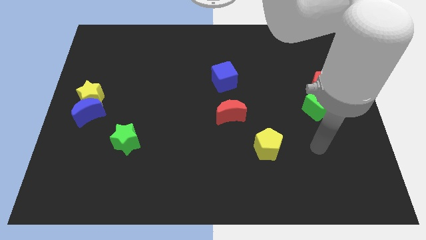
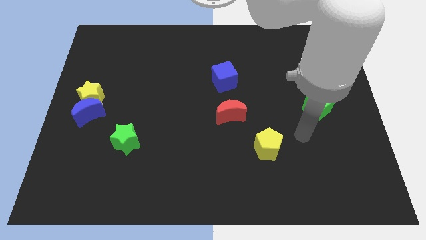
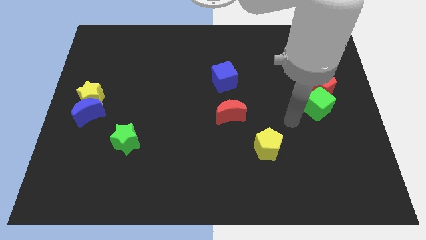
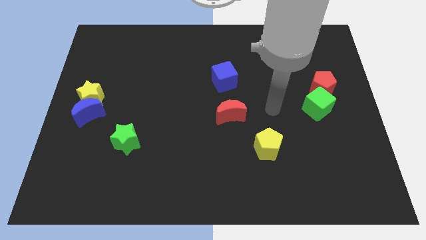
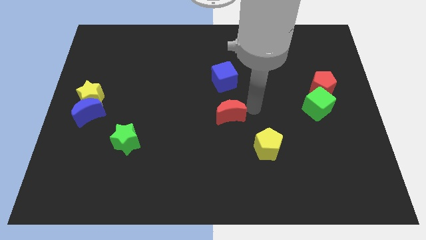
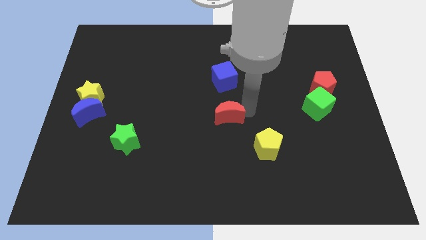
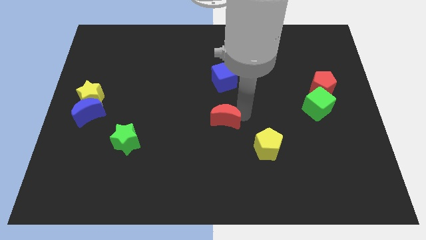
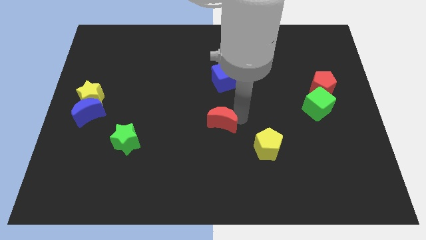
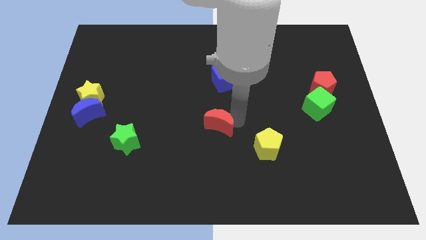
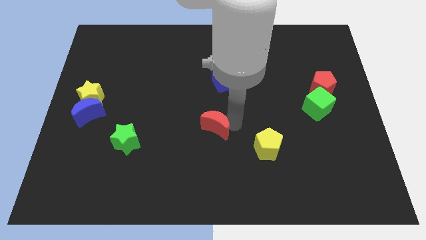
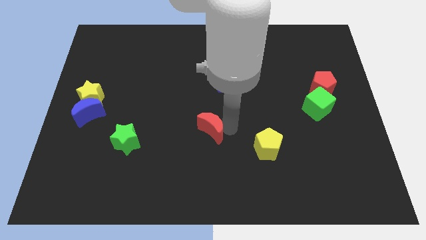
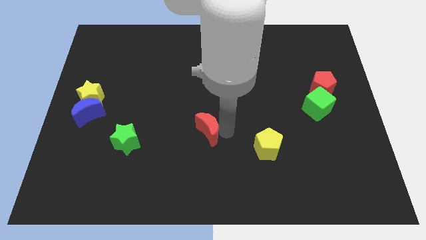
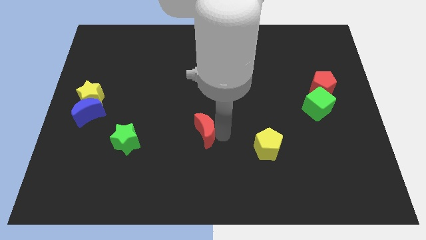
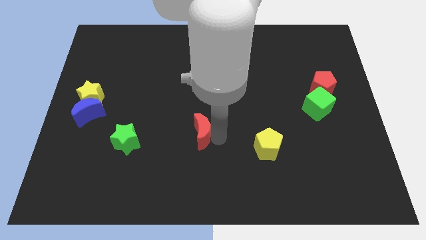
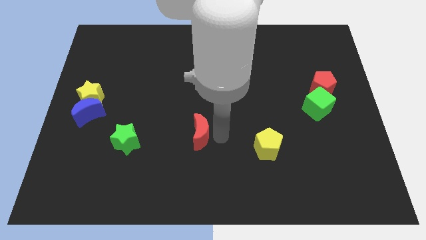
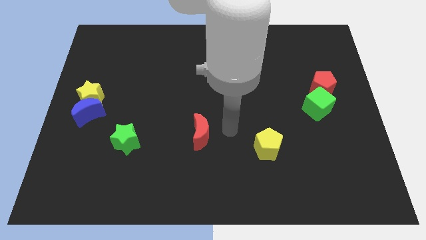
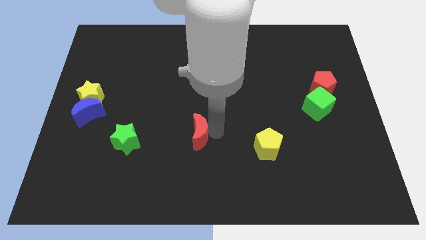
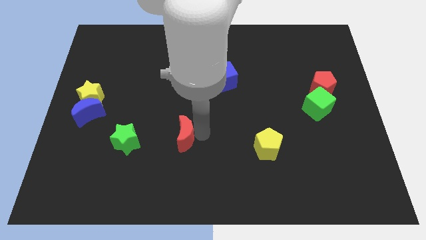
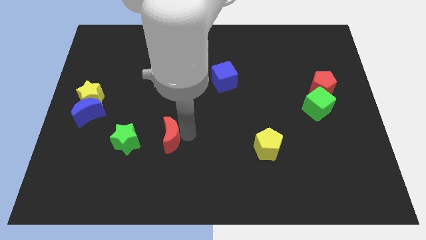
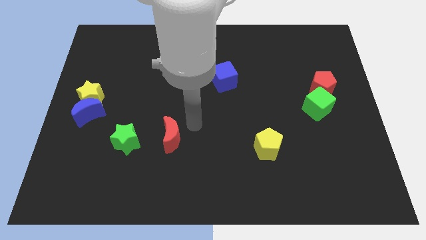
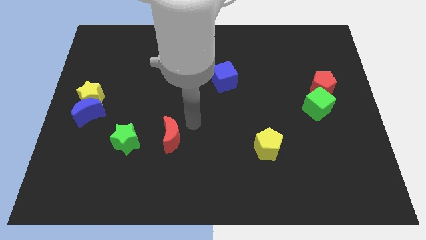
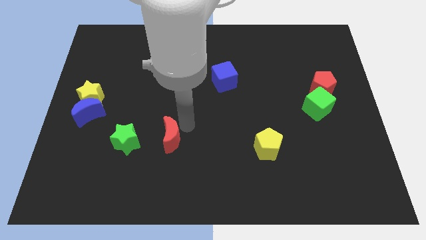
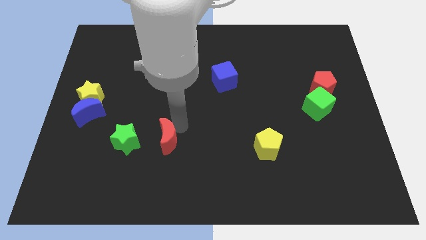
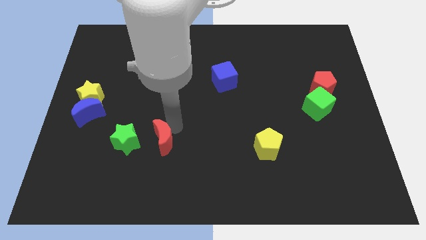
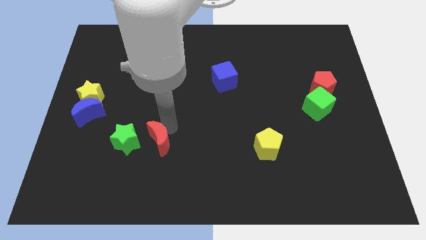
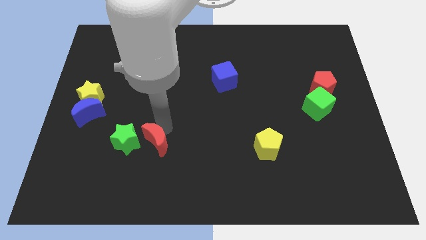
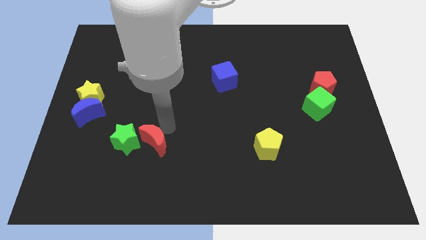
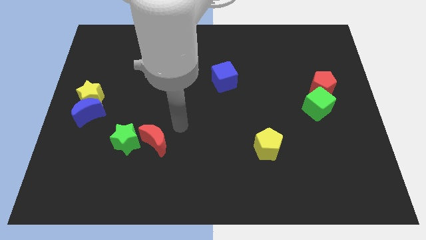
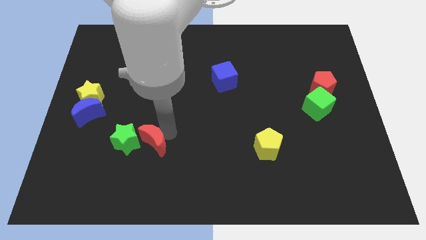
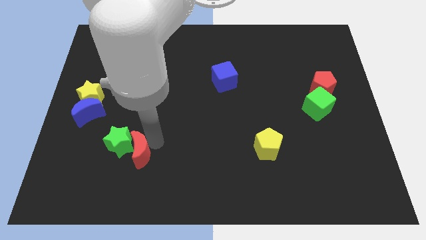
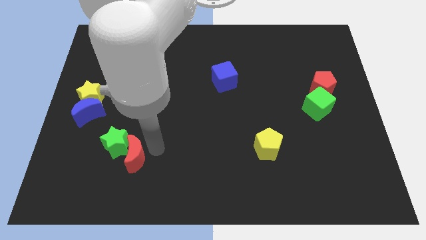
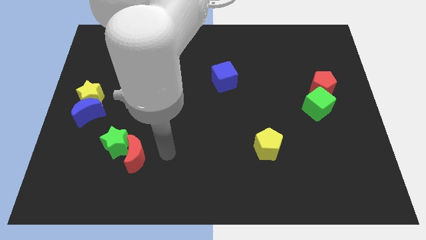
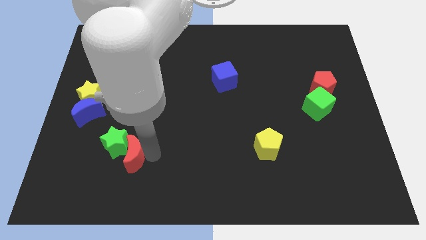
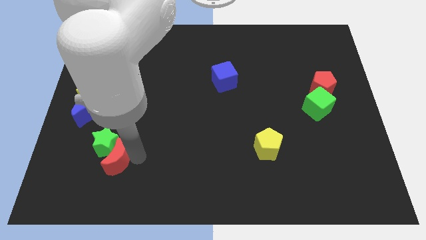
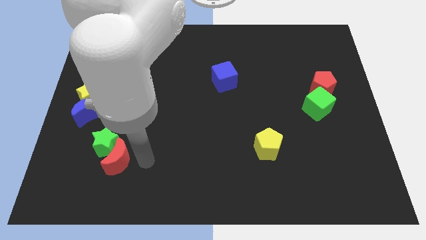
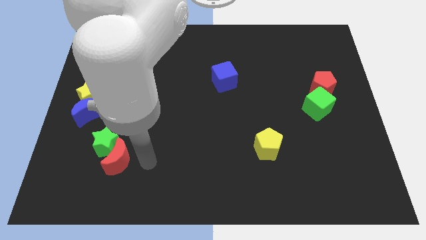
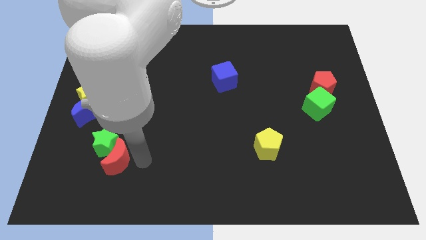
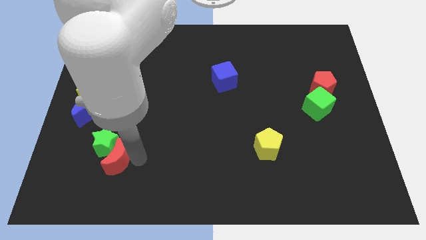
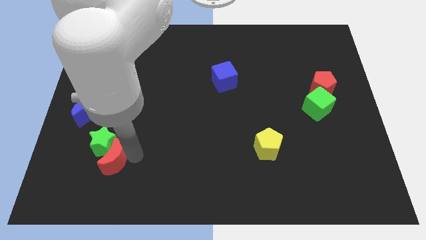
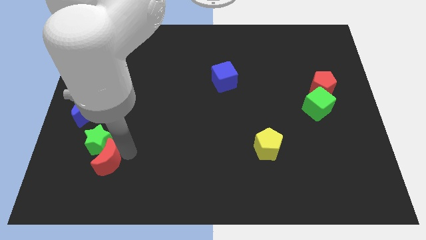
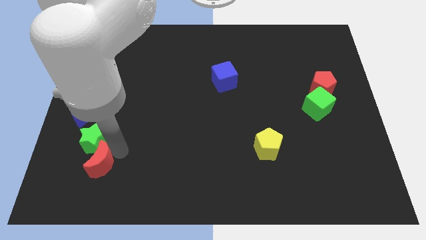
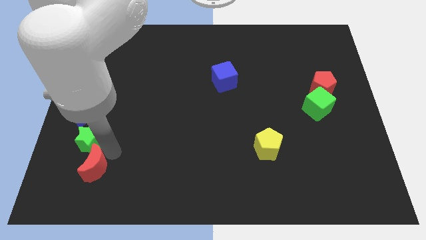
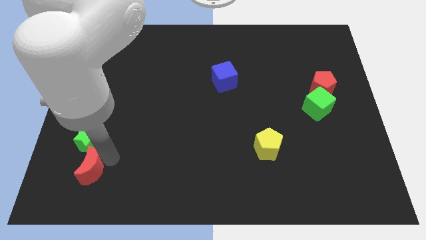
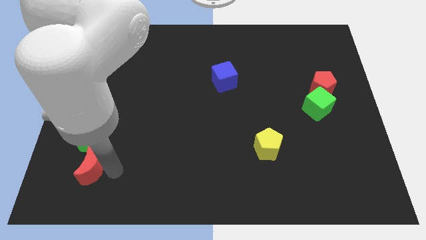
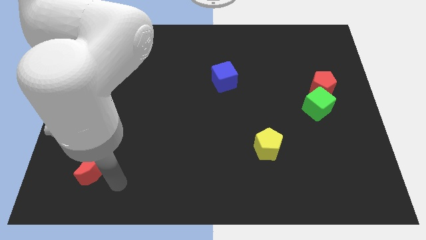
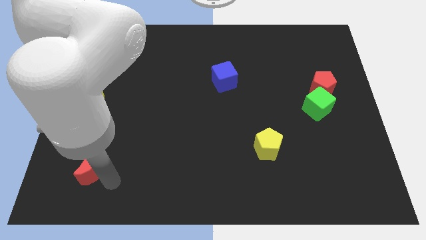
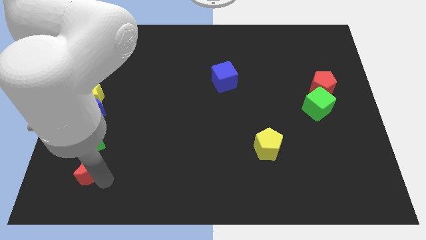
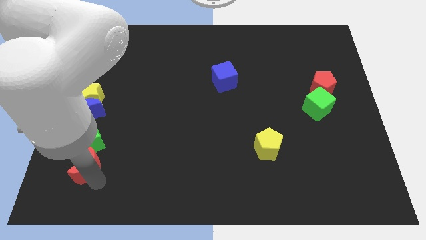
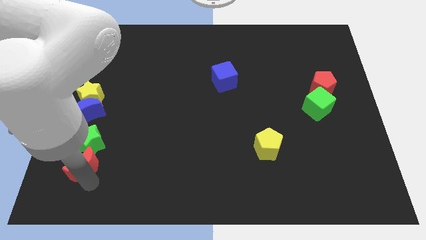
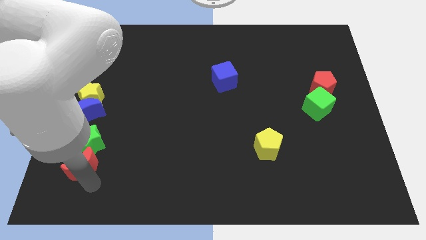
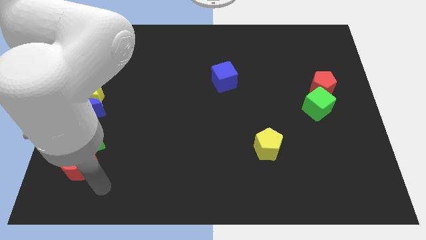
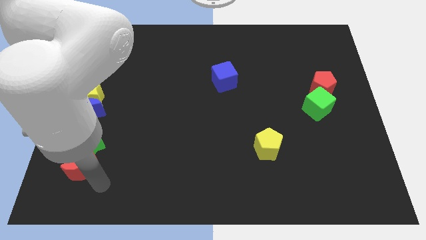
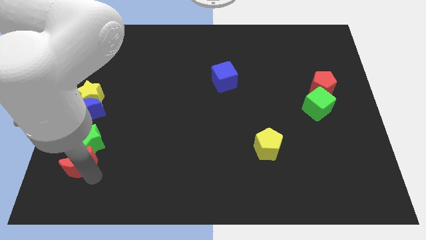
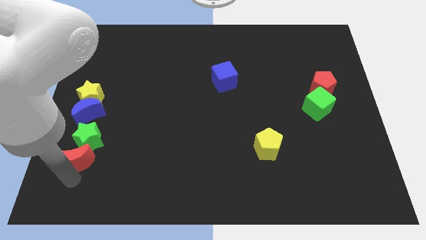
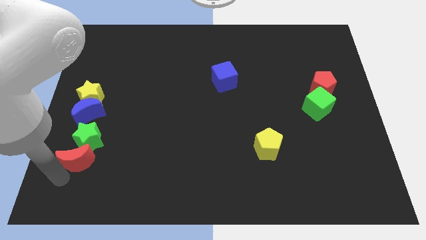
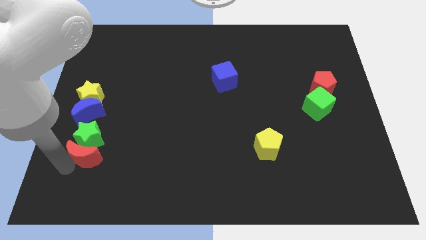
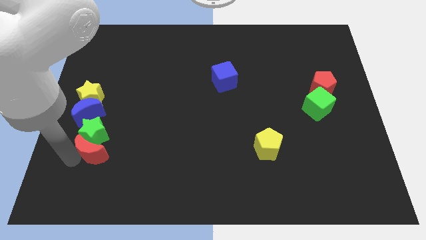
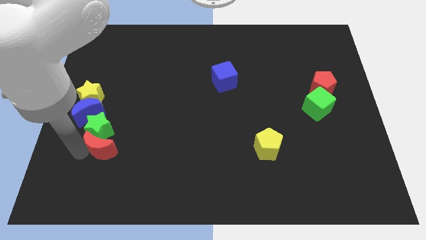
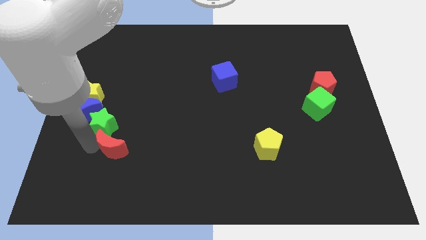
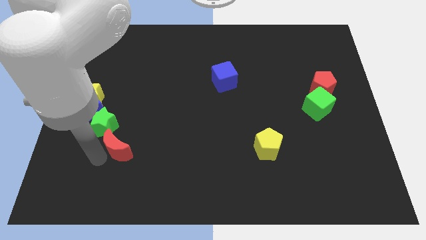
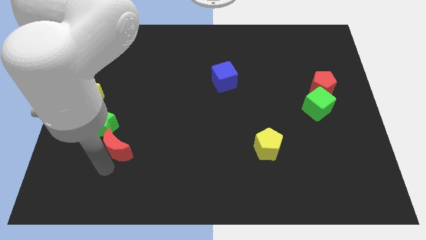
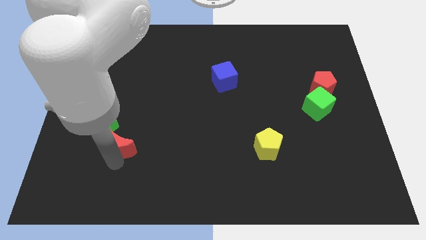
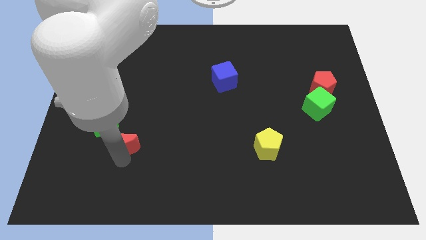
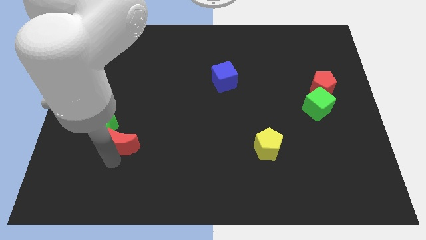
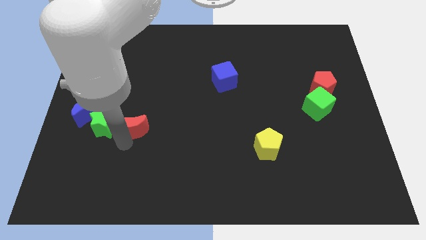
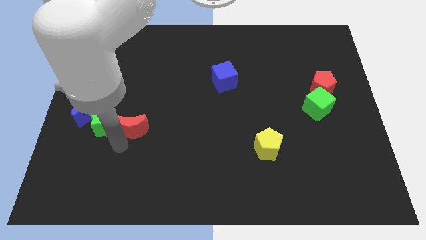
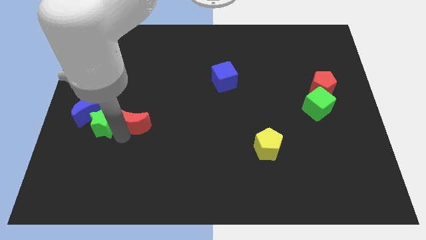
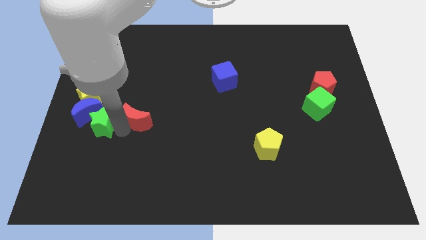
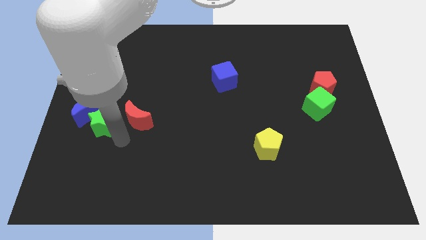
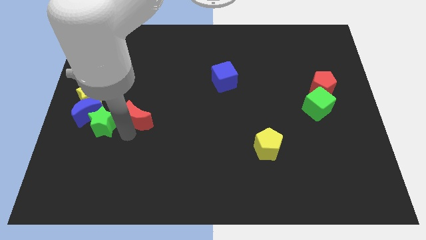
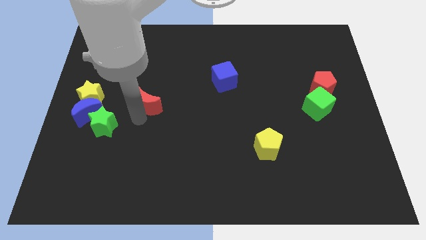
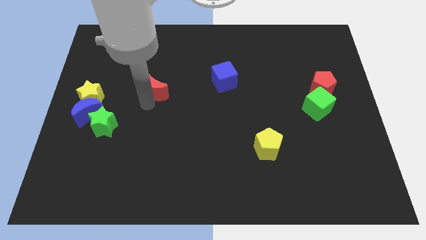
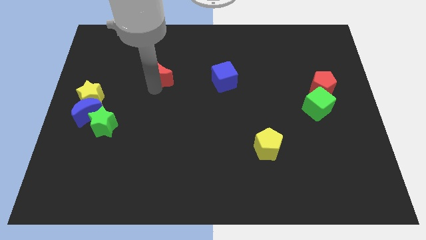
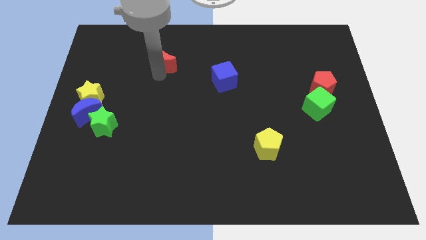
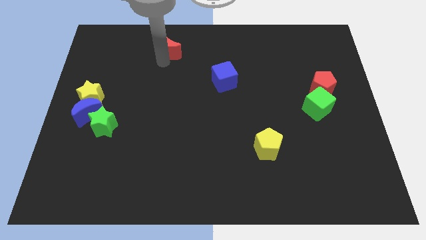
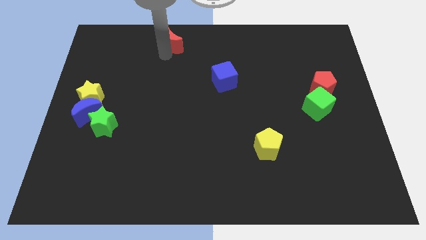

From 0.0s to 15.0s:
put the red moon to the top
